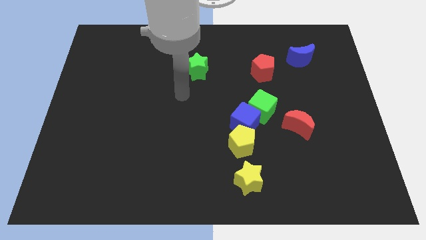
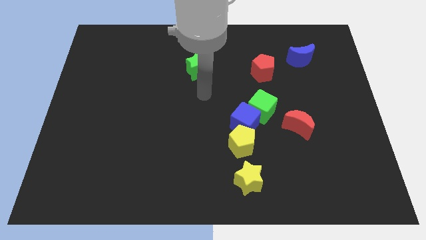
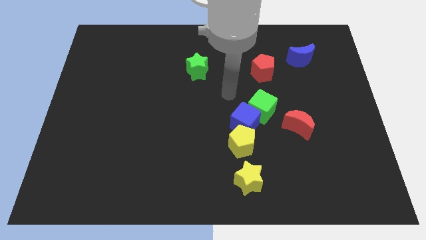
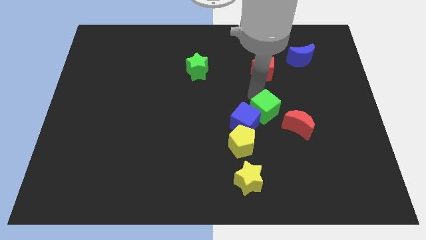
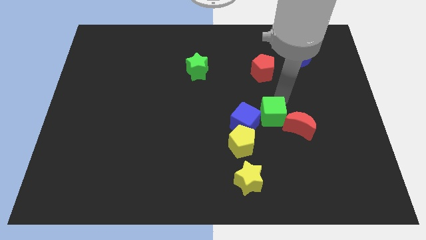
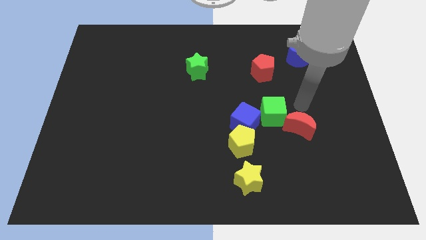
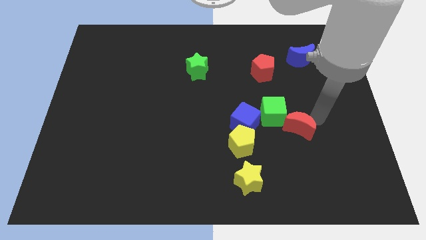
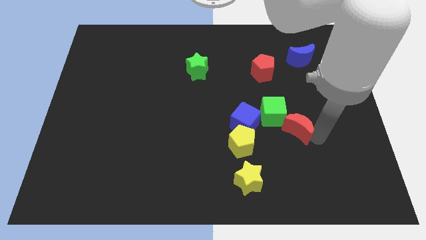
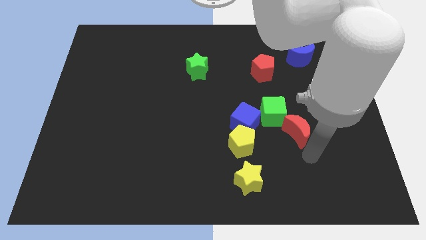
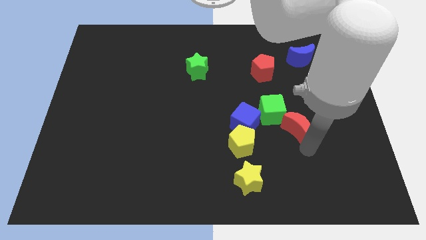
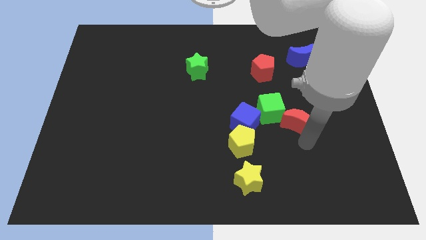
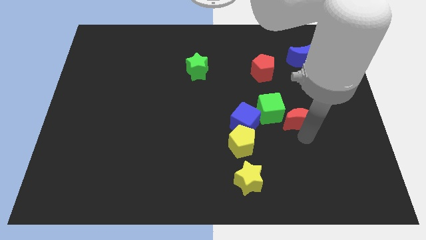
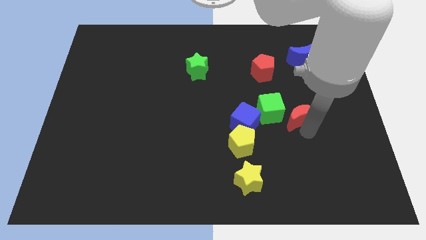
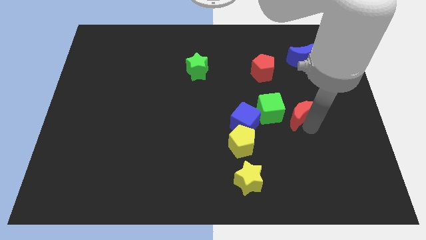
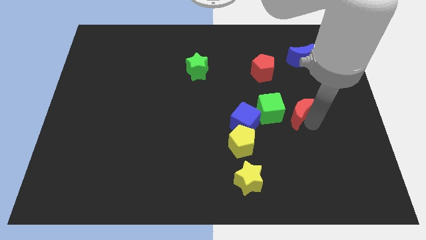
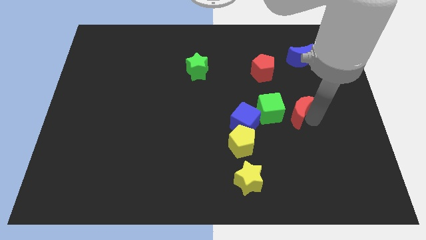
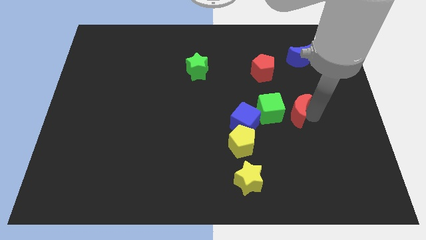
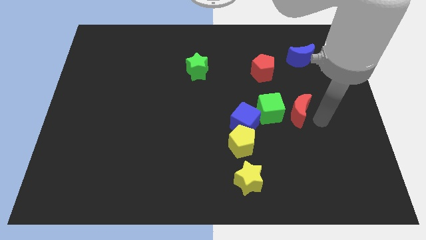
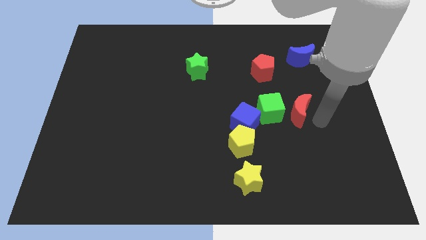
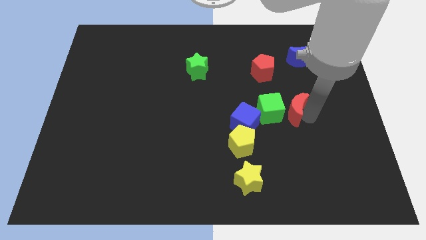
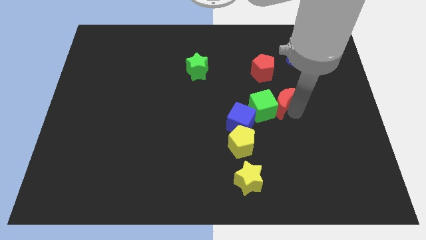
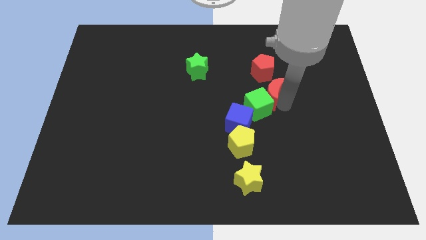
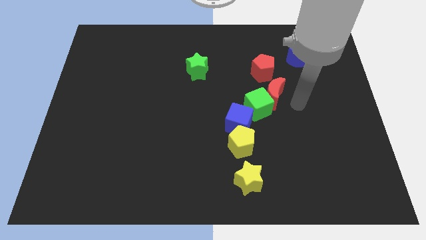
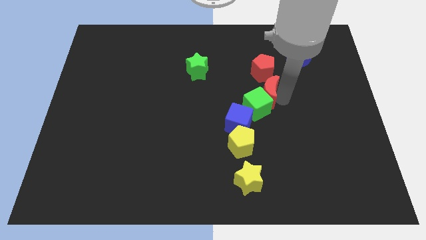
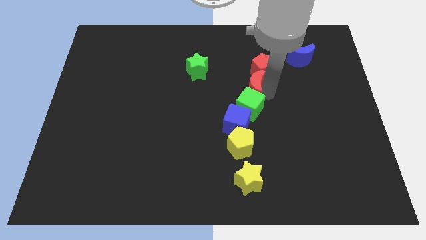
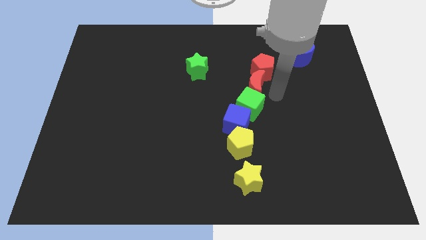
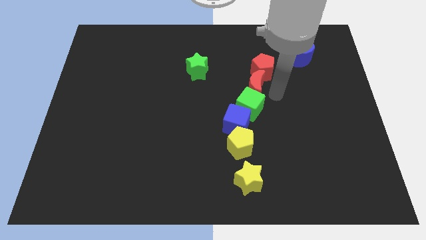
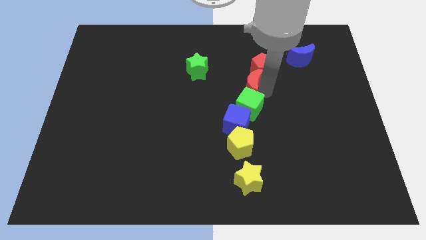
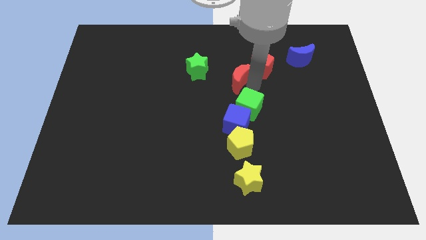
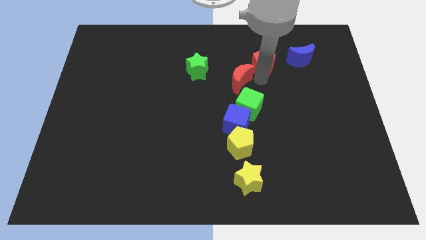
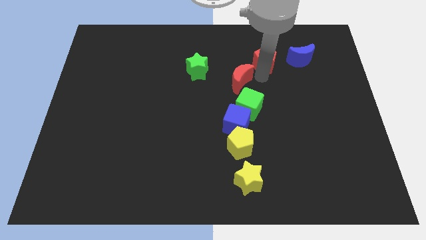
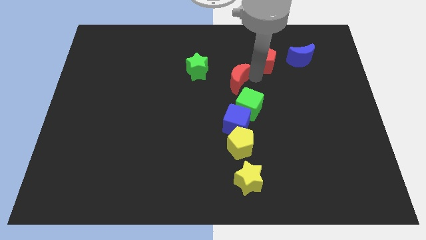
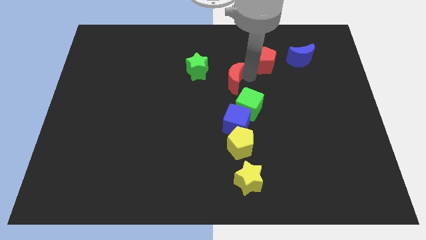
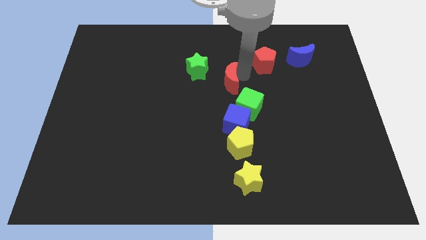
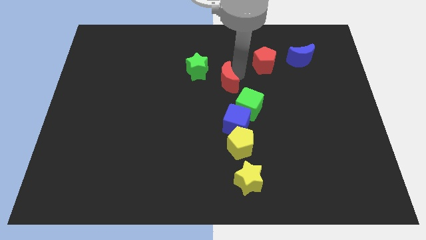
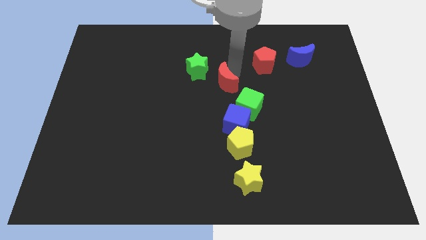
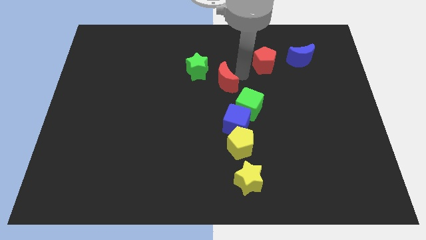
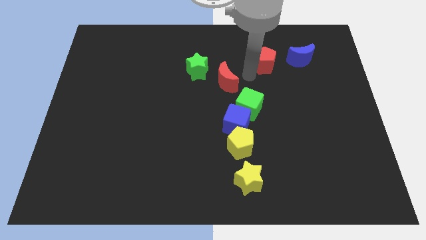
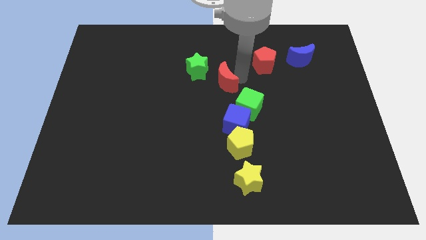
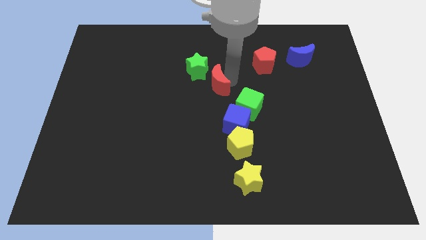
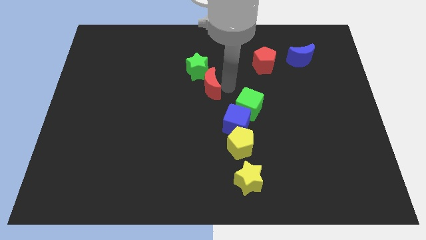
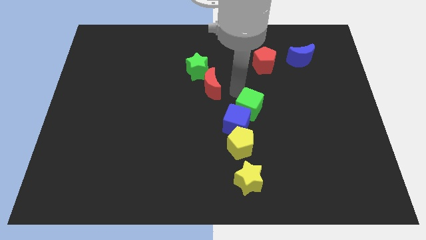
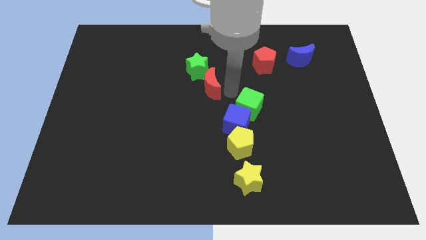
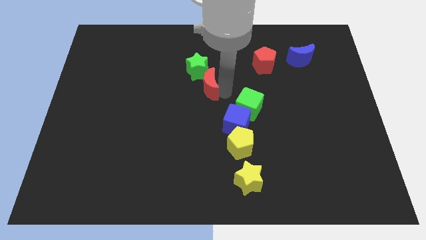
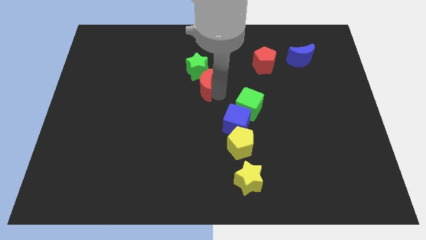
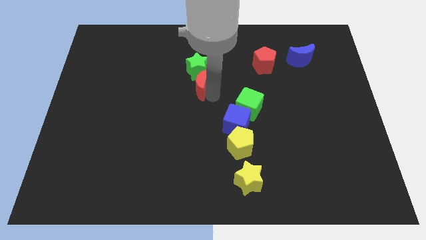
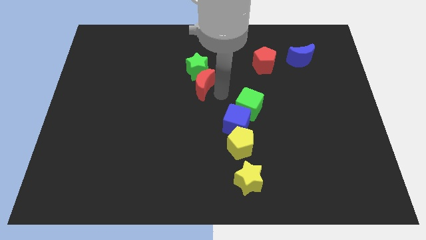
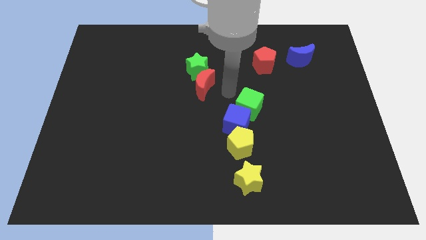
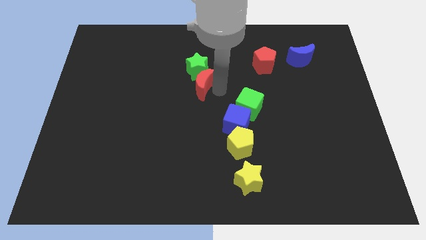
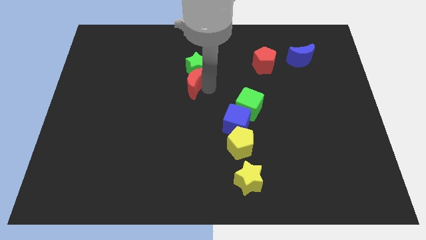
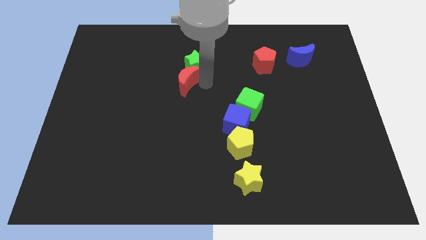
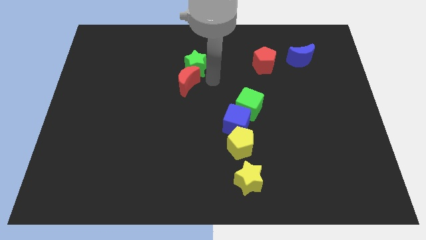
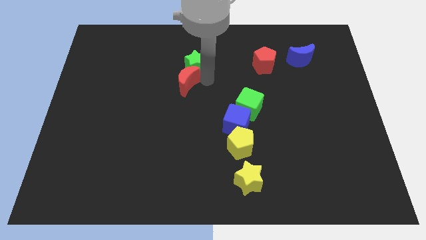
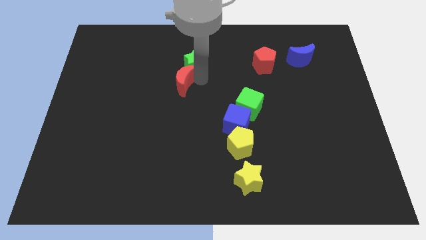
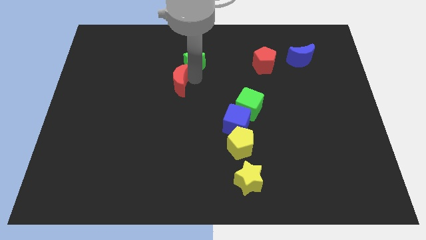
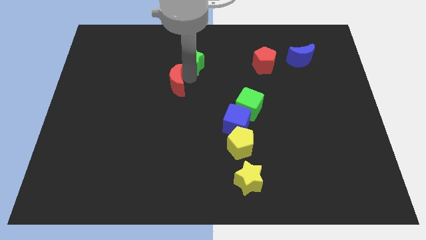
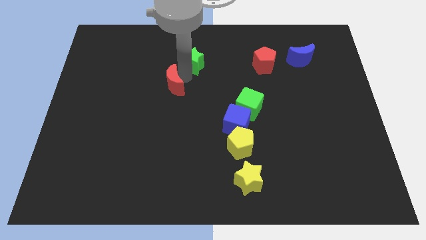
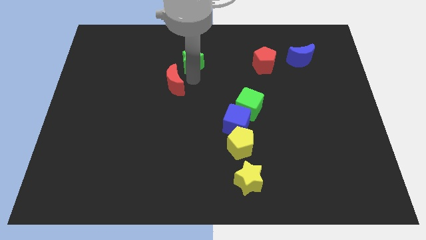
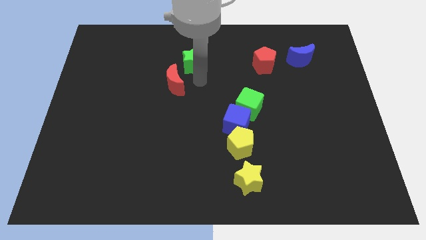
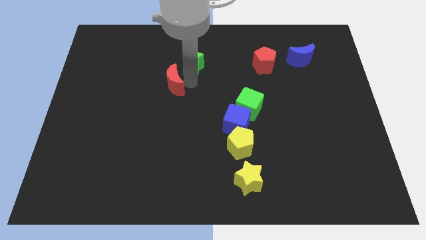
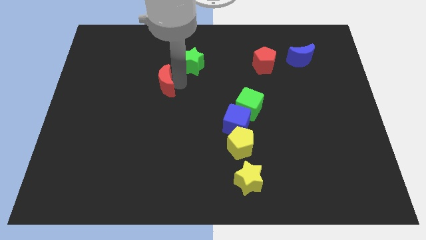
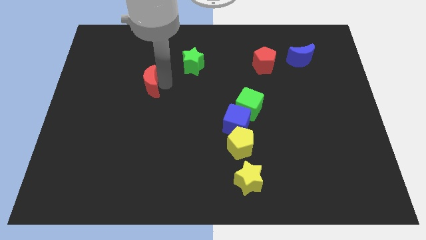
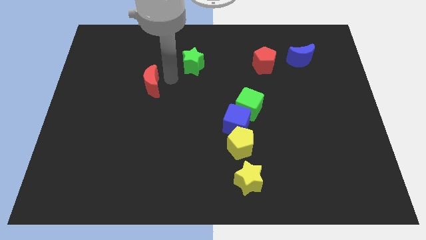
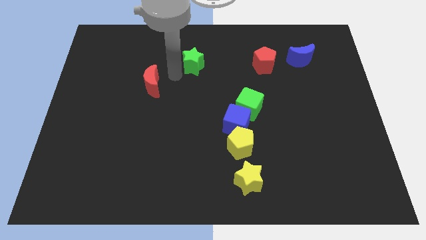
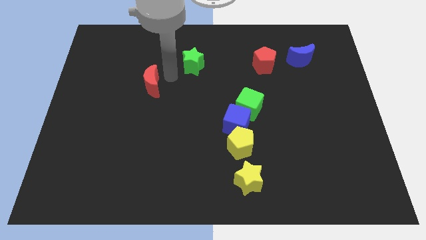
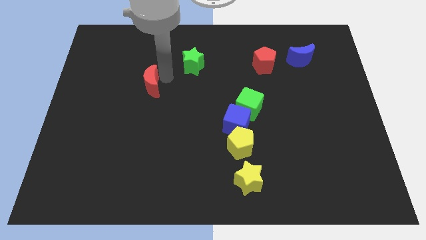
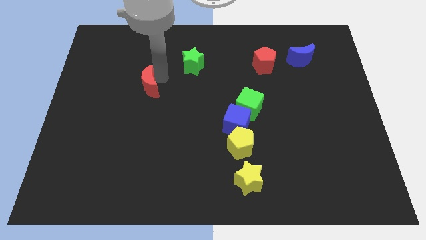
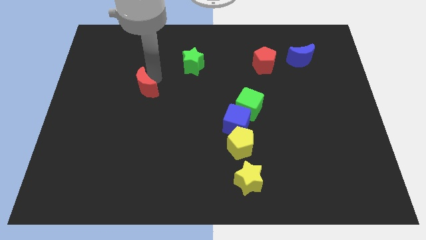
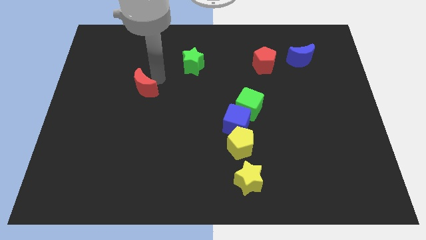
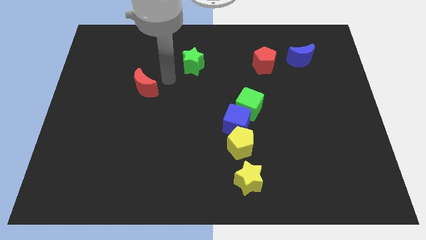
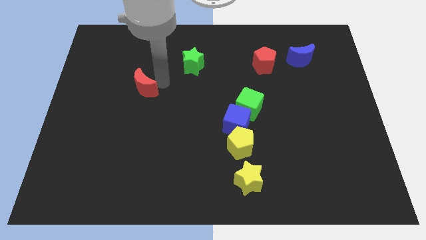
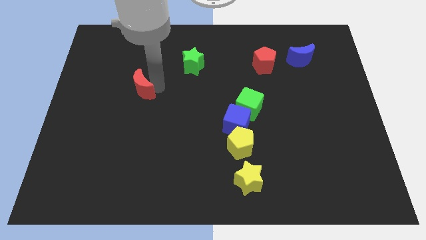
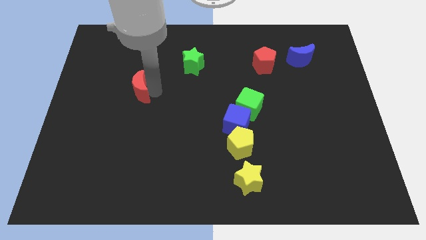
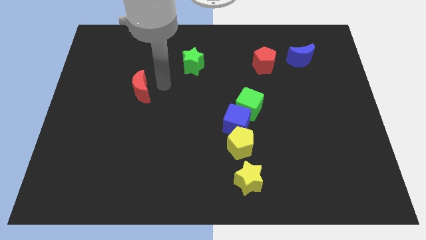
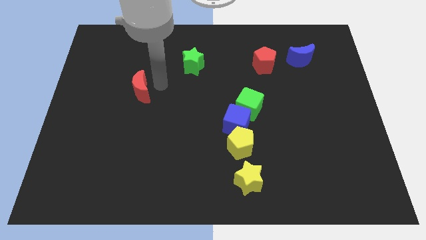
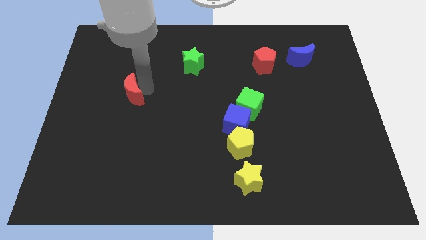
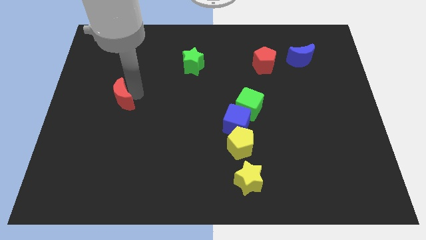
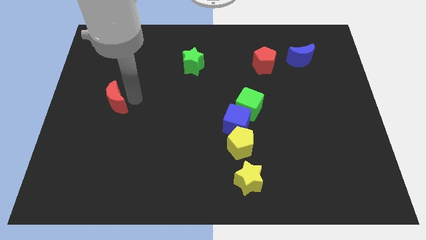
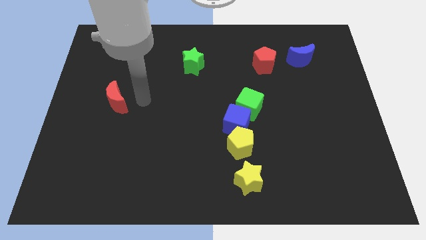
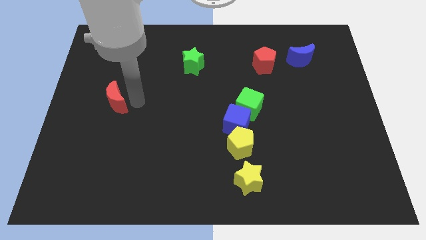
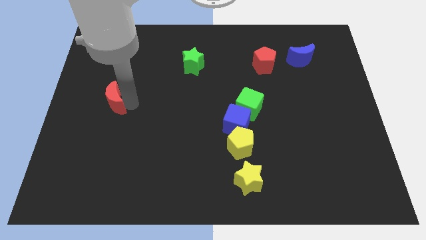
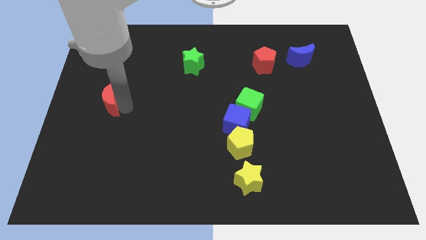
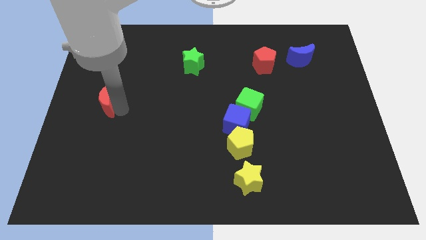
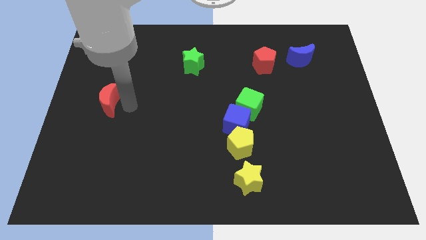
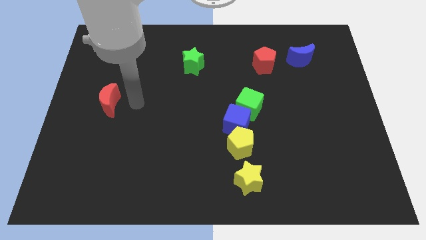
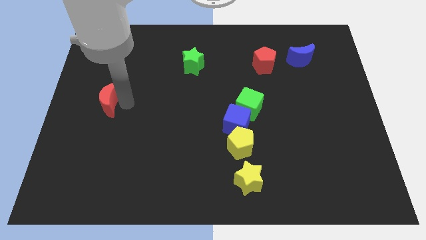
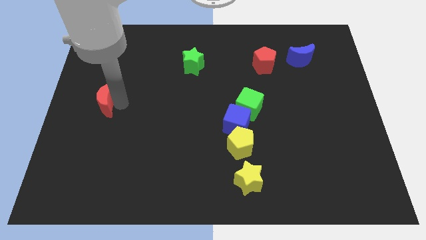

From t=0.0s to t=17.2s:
slide the red moon to the left side
